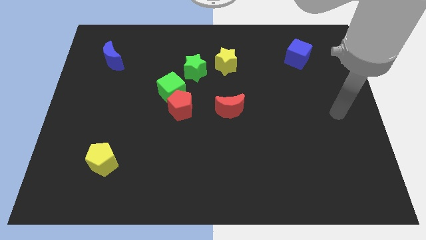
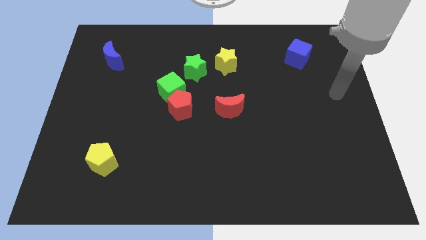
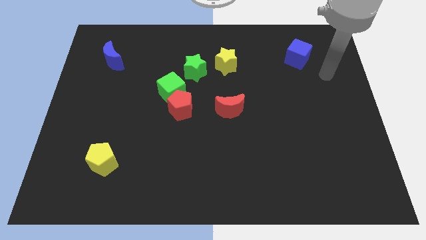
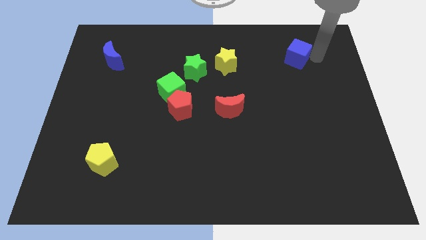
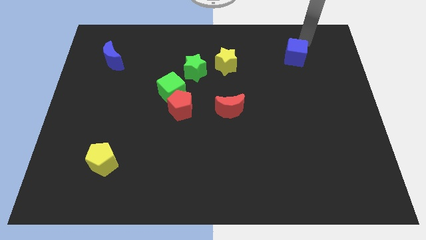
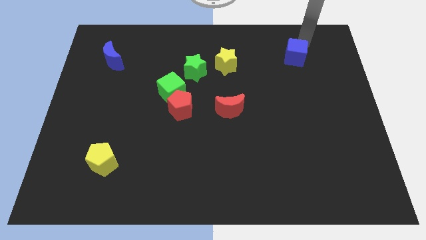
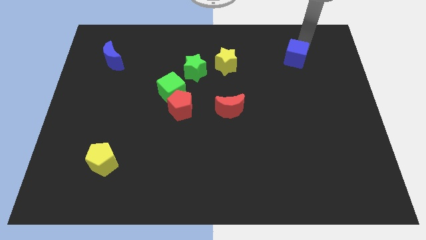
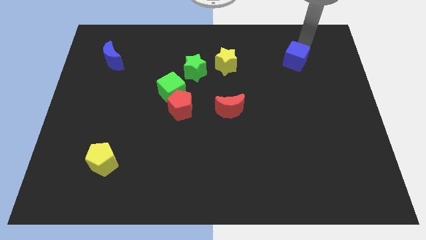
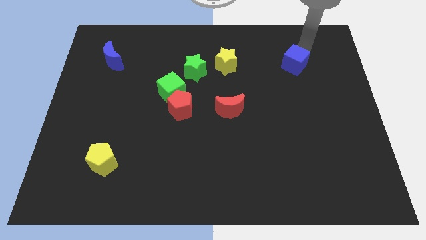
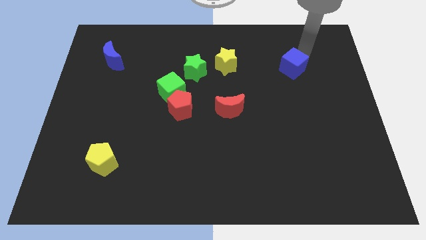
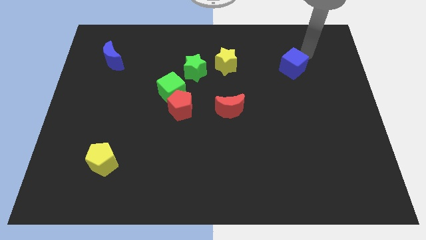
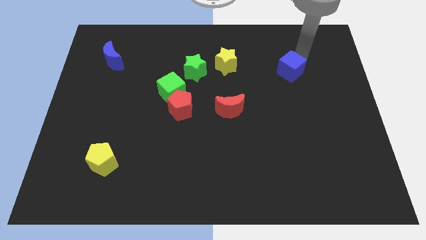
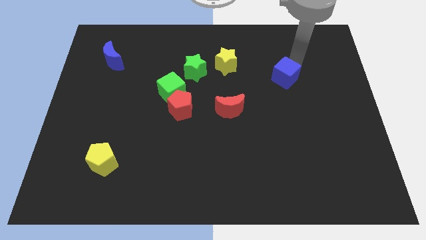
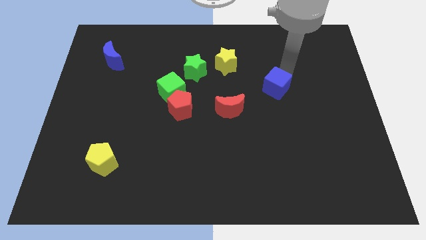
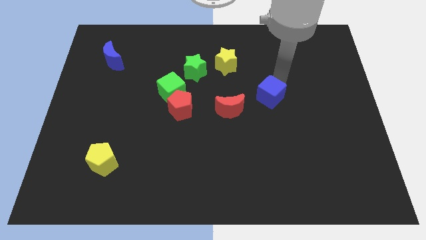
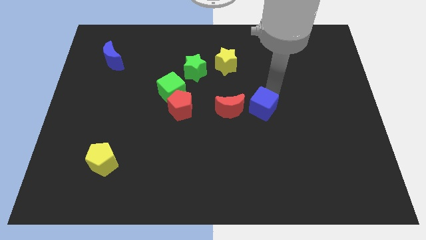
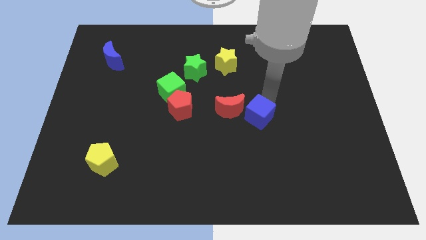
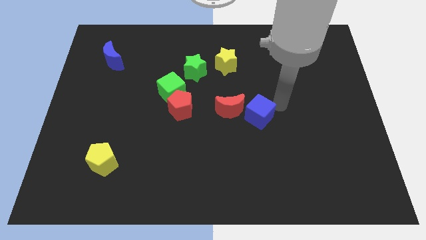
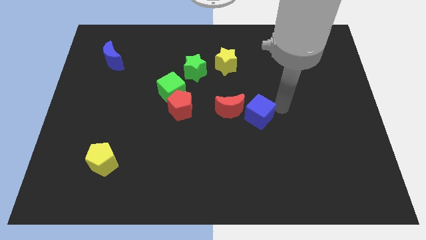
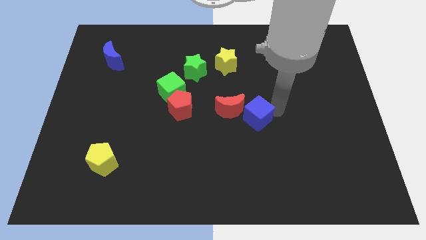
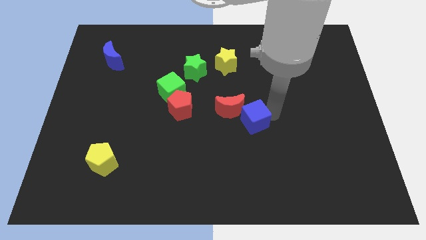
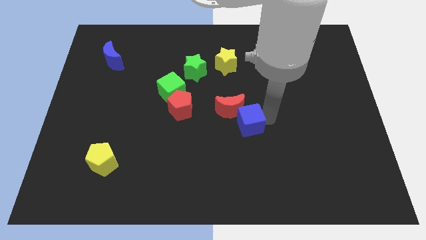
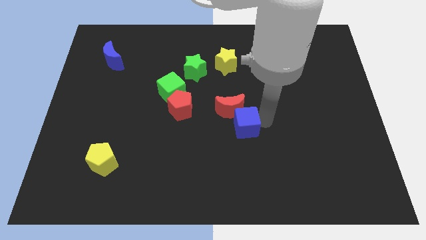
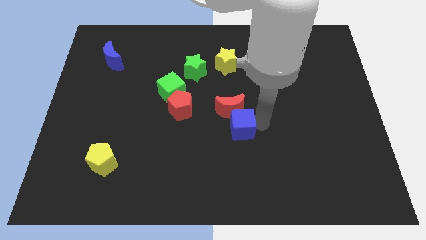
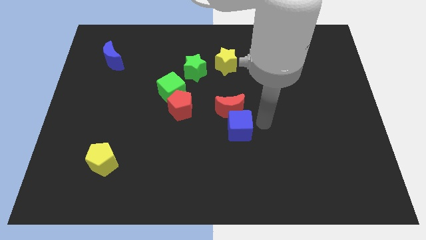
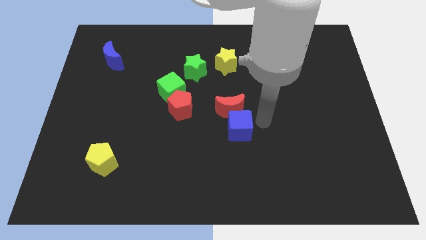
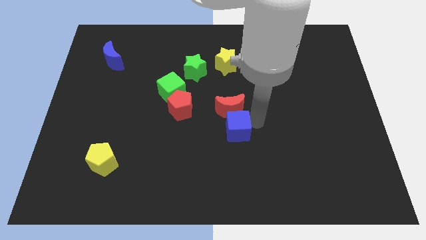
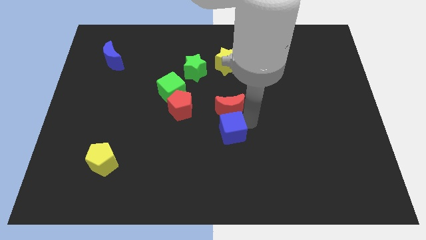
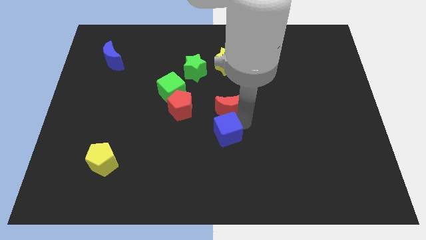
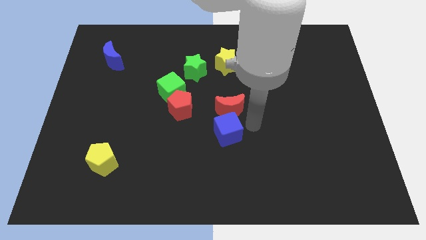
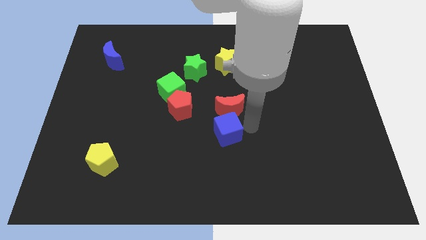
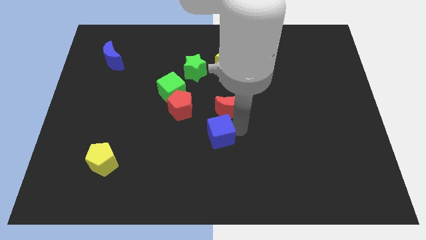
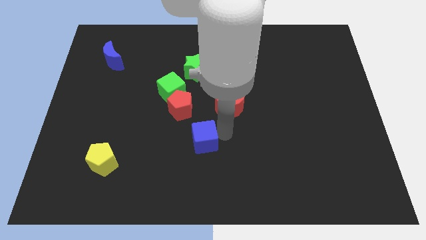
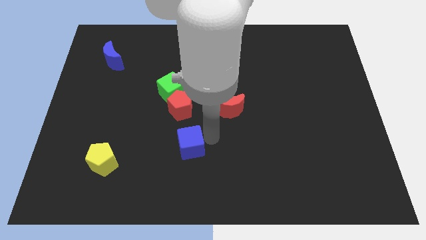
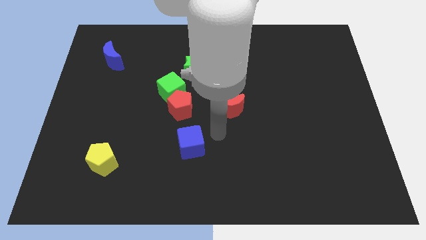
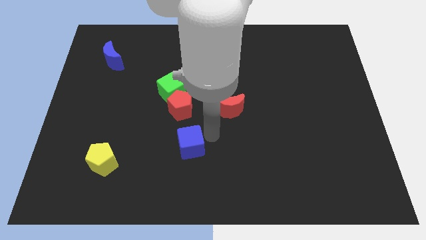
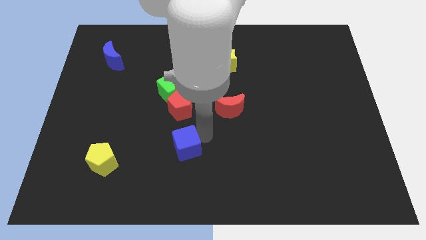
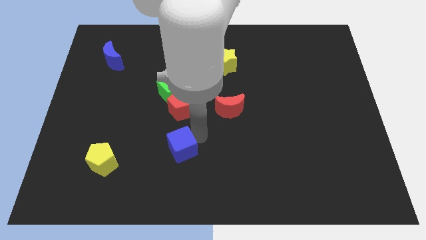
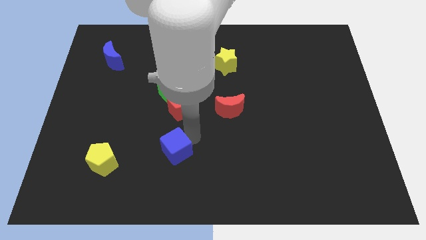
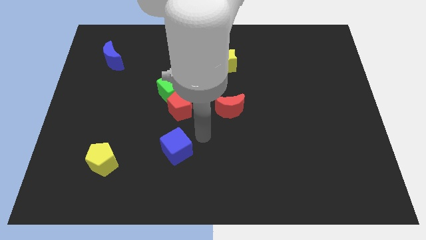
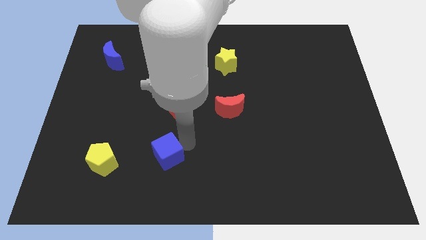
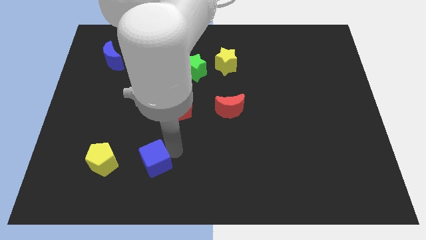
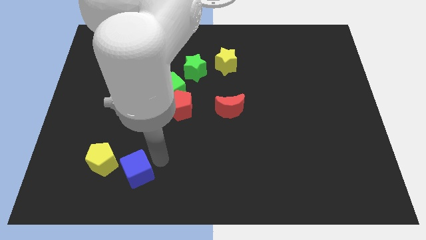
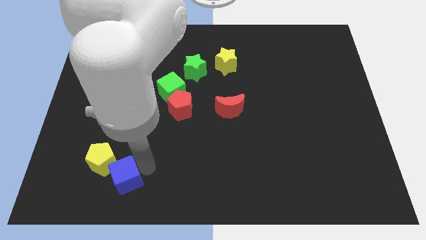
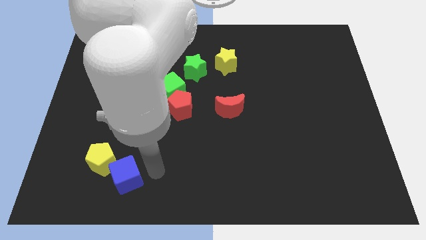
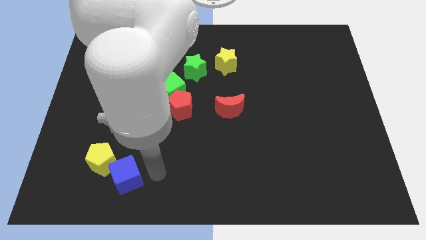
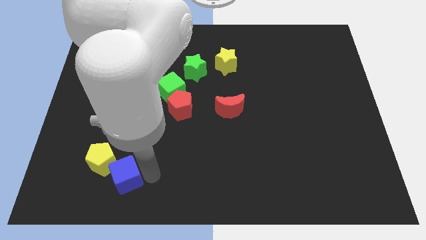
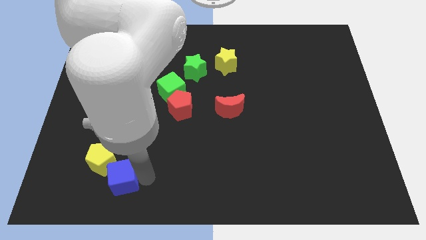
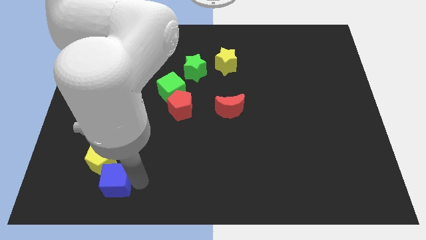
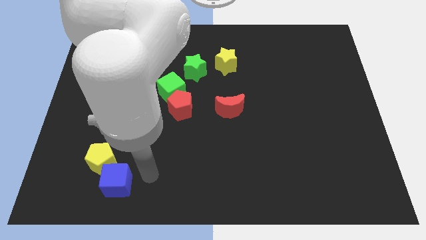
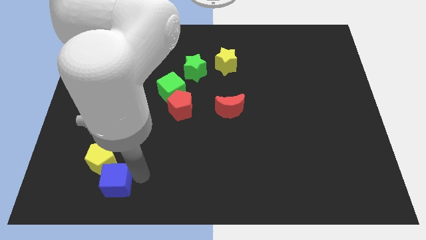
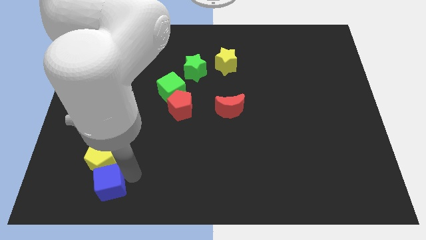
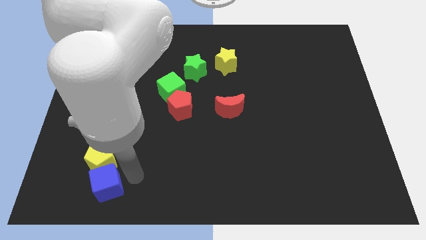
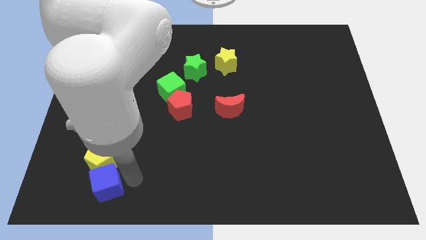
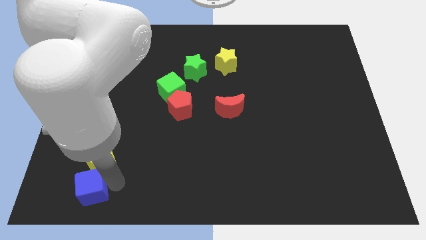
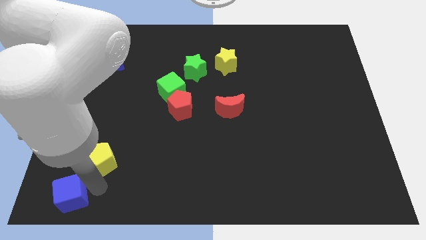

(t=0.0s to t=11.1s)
push the blue cube to the bottom left corner

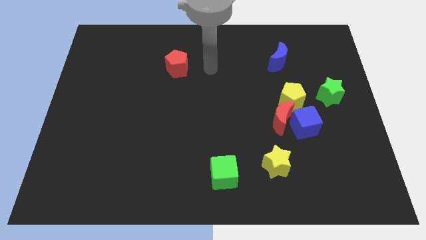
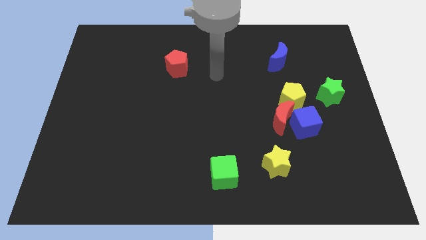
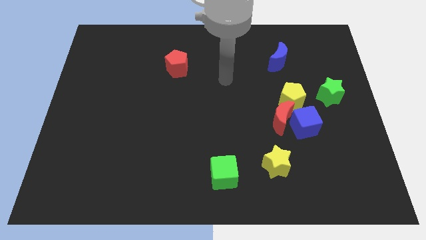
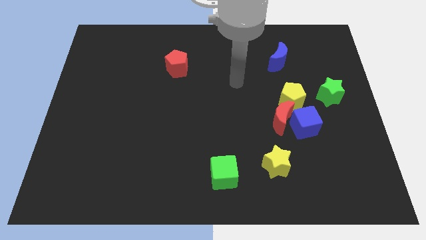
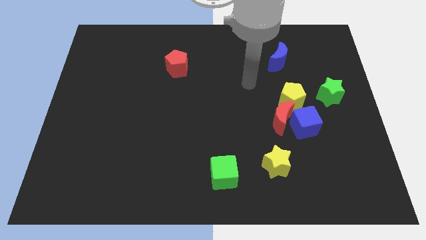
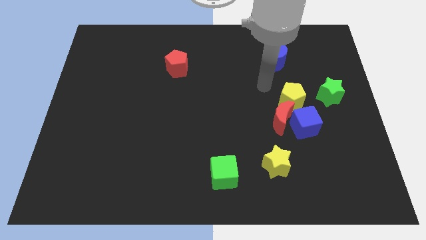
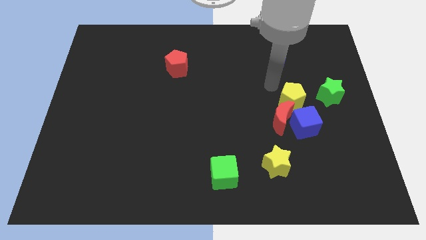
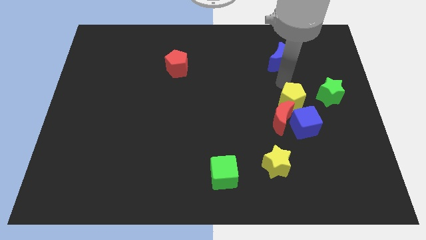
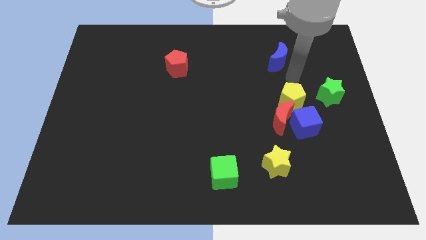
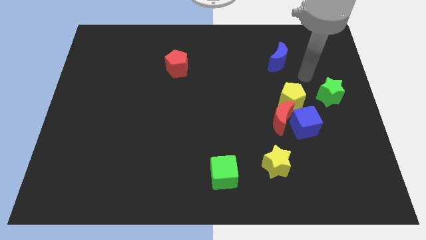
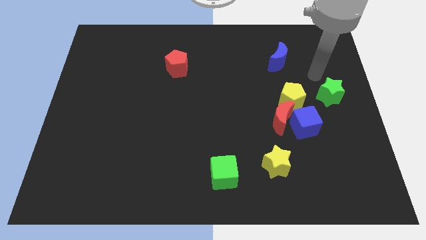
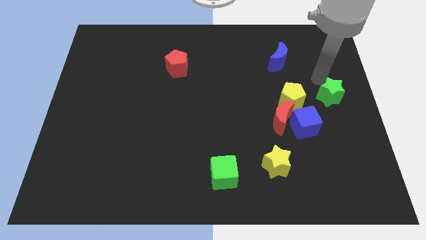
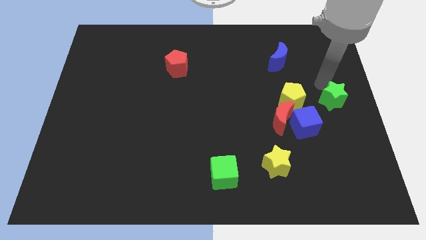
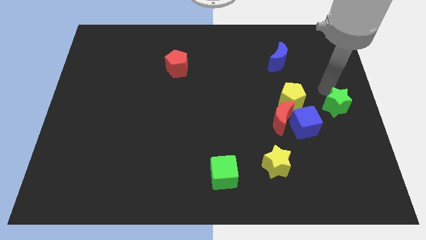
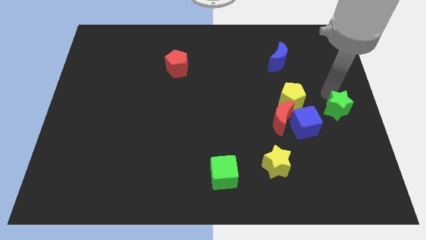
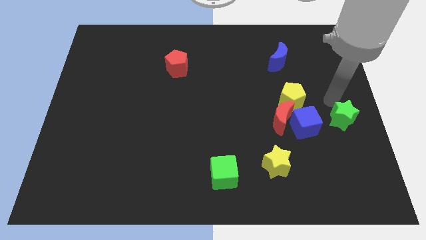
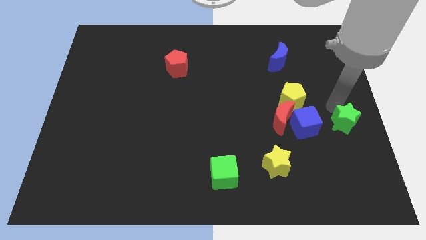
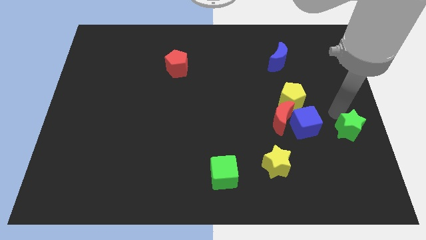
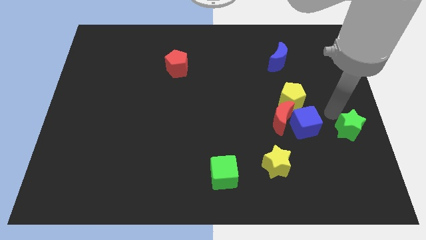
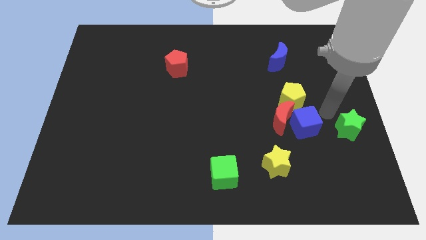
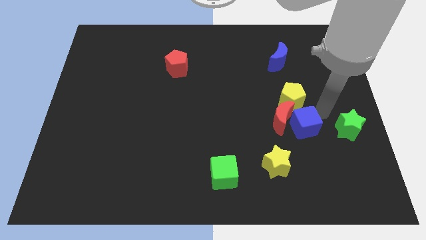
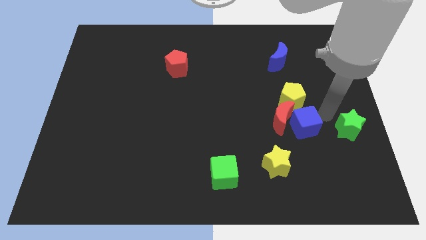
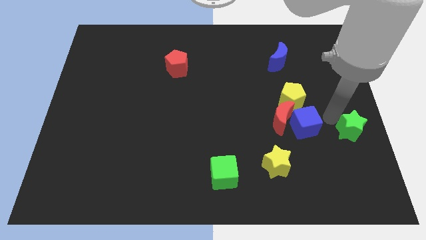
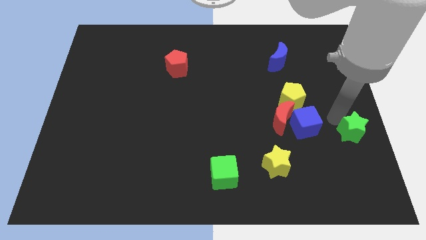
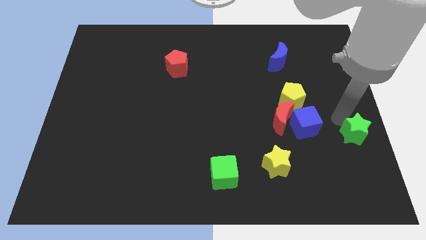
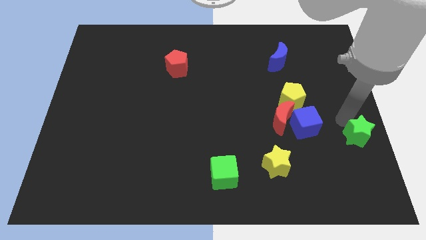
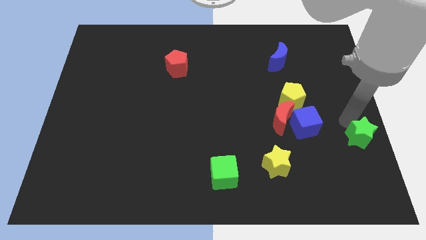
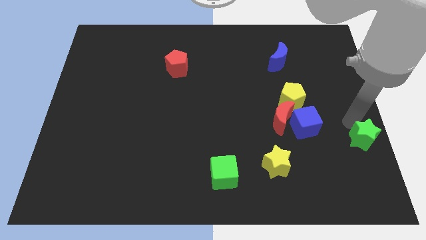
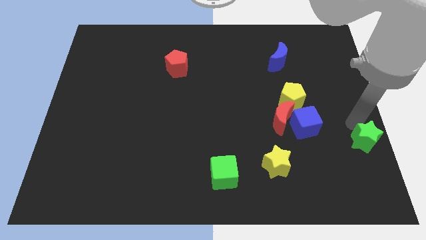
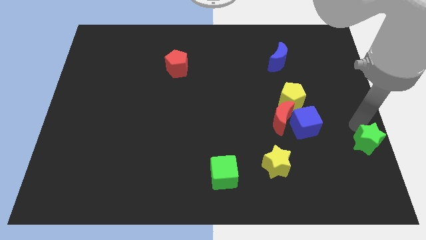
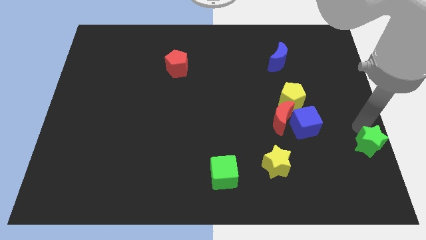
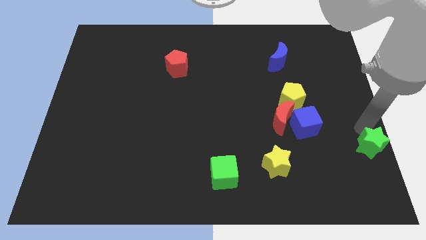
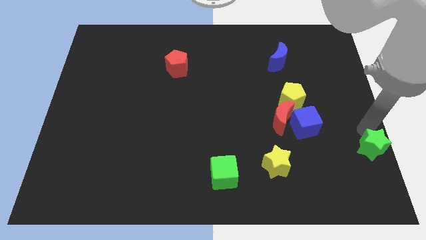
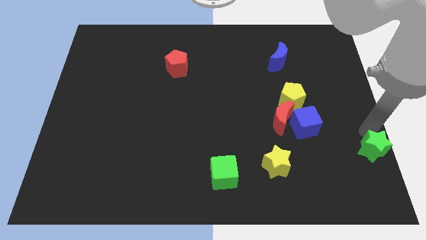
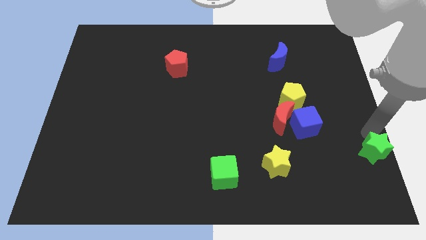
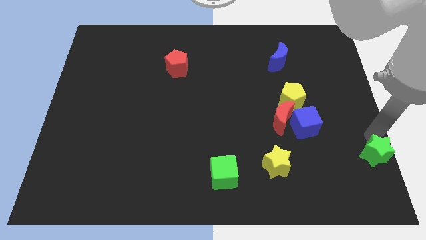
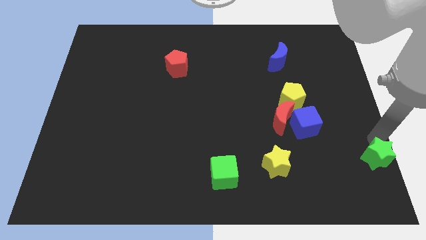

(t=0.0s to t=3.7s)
slide the green star to the lower right corner
